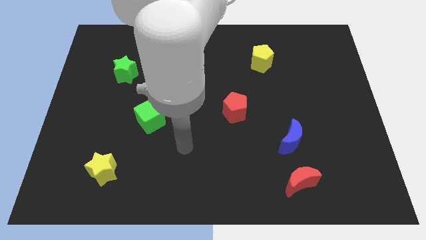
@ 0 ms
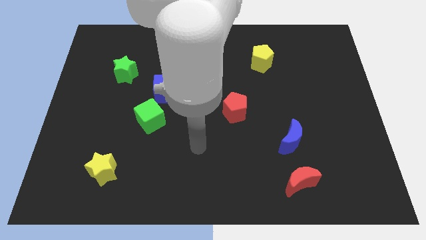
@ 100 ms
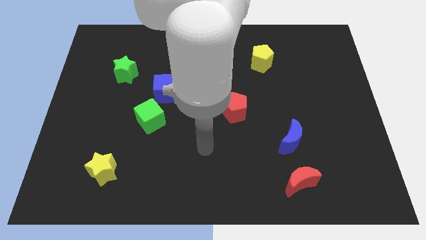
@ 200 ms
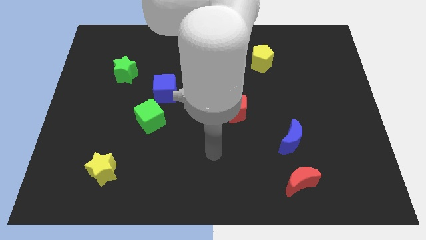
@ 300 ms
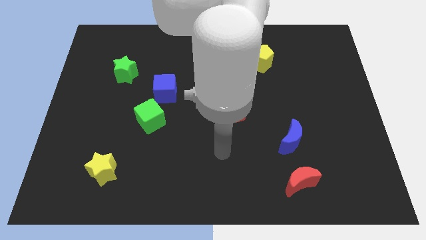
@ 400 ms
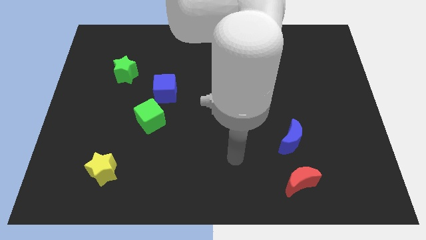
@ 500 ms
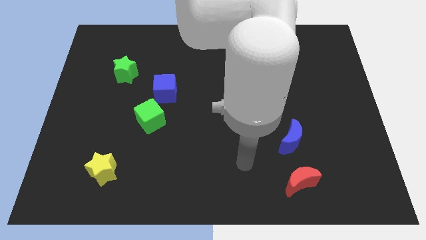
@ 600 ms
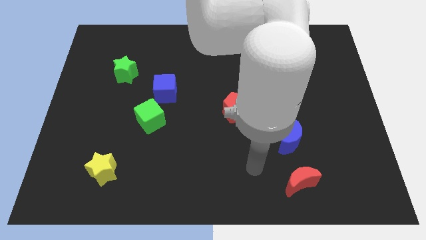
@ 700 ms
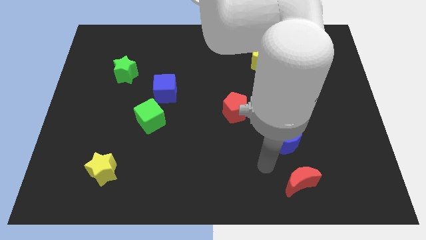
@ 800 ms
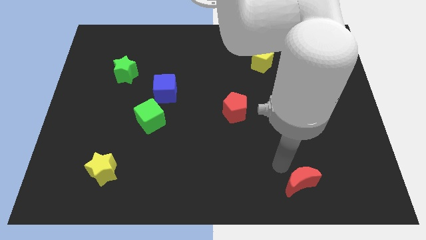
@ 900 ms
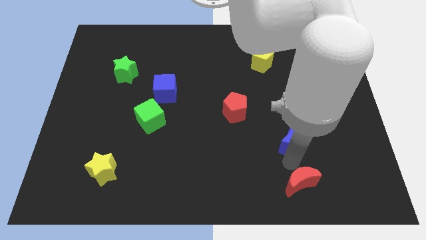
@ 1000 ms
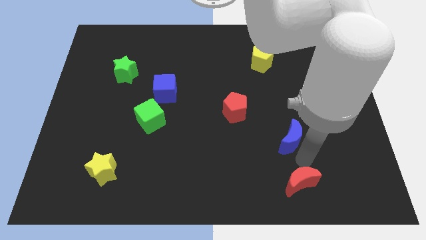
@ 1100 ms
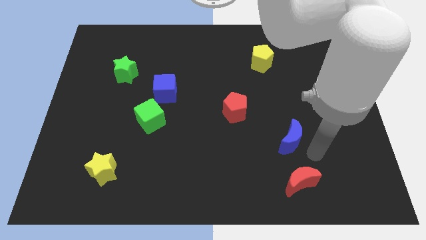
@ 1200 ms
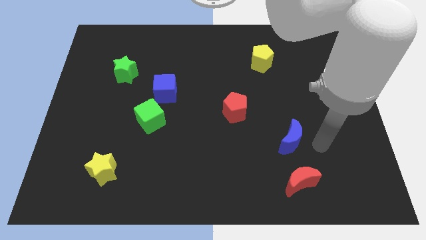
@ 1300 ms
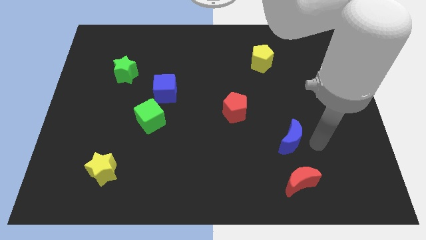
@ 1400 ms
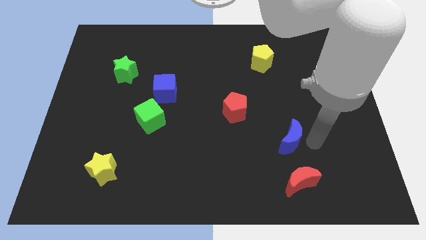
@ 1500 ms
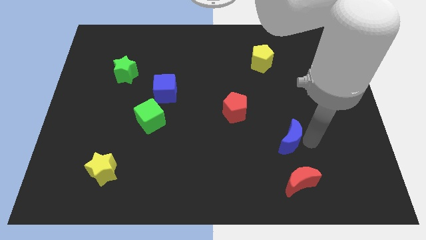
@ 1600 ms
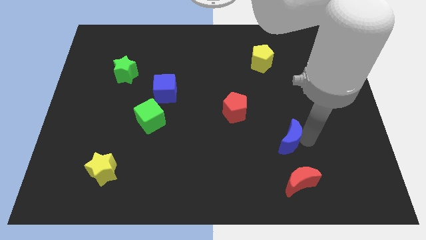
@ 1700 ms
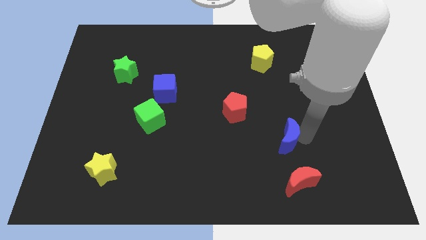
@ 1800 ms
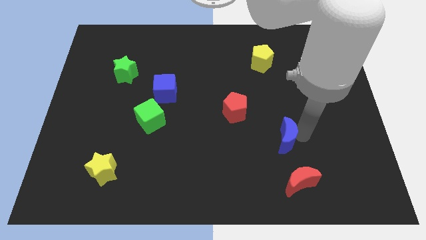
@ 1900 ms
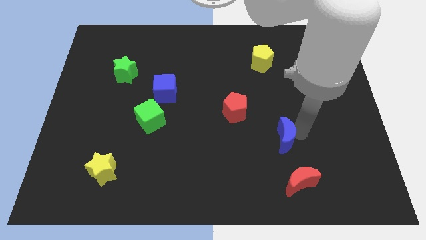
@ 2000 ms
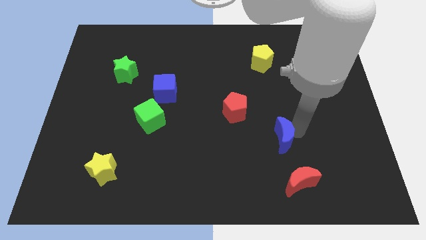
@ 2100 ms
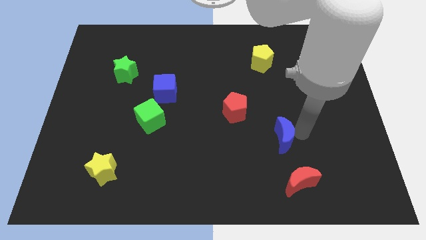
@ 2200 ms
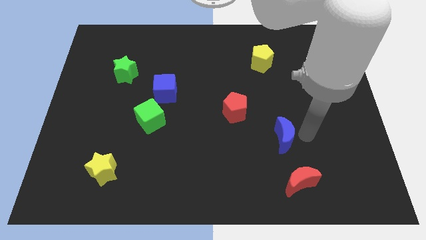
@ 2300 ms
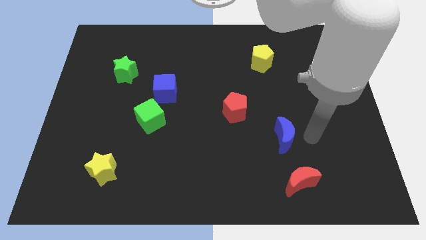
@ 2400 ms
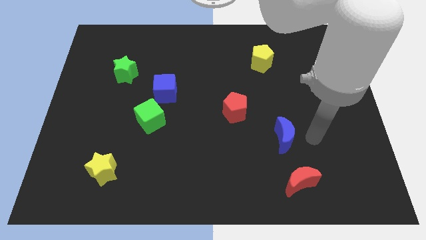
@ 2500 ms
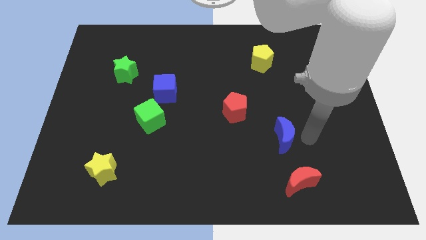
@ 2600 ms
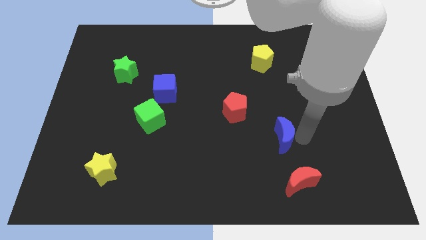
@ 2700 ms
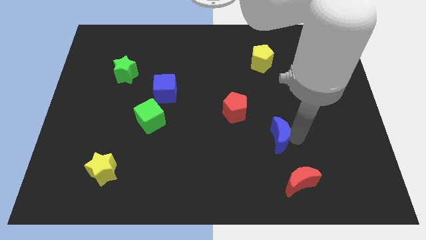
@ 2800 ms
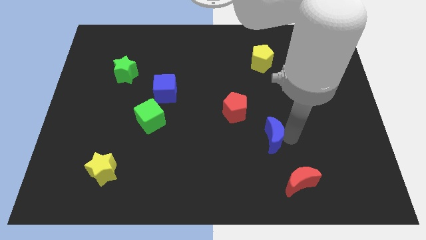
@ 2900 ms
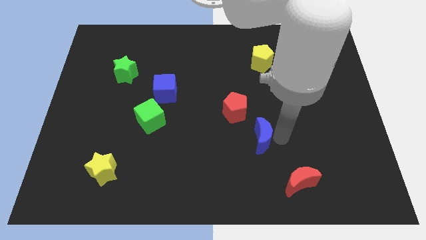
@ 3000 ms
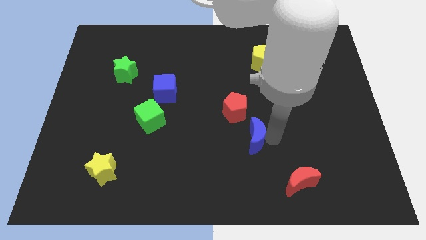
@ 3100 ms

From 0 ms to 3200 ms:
slide the blue moon slightly to the left

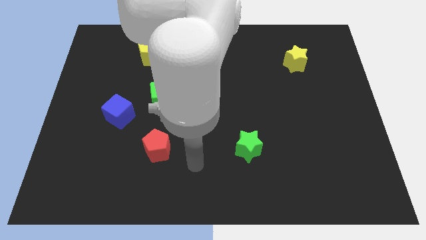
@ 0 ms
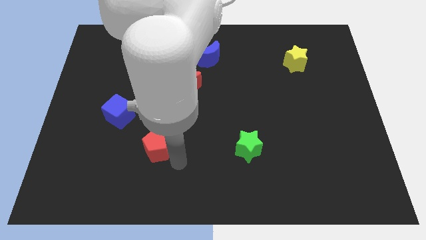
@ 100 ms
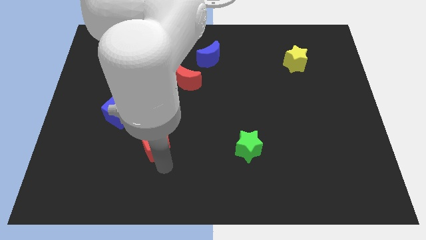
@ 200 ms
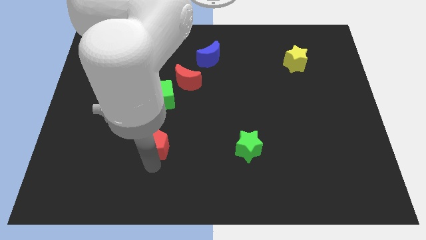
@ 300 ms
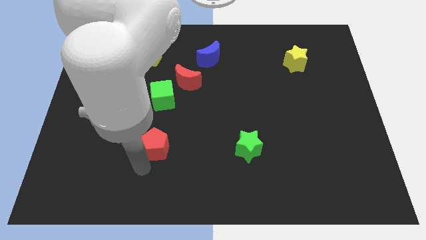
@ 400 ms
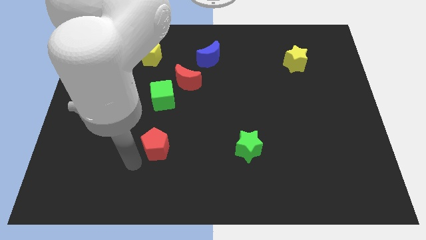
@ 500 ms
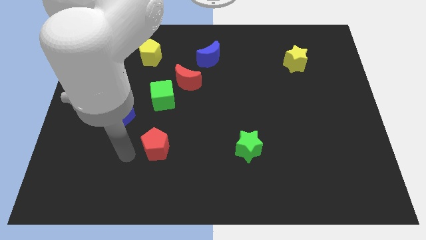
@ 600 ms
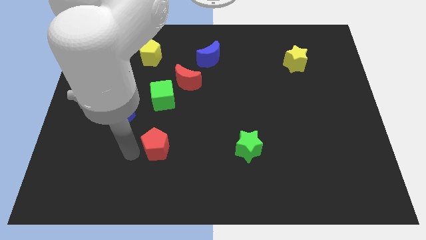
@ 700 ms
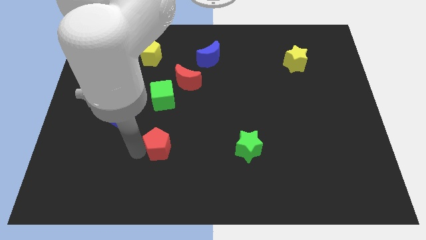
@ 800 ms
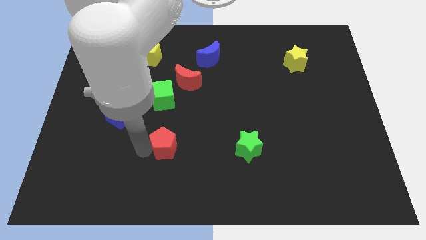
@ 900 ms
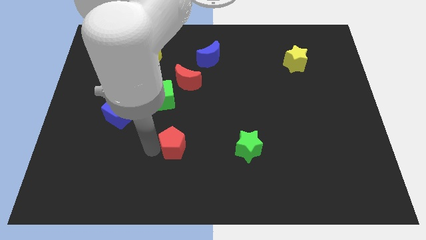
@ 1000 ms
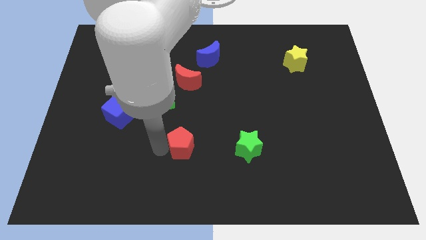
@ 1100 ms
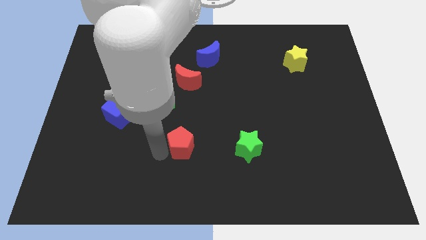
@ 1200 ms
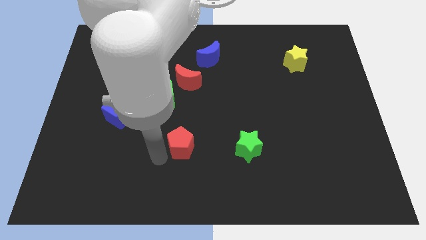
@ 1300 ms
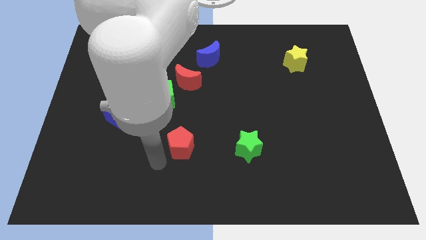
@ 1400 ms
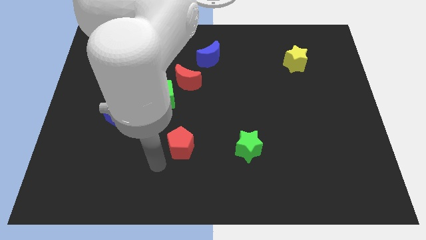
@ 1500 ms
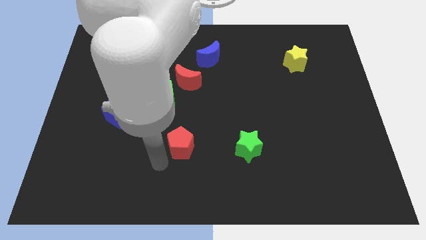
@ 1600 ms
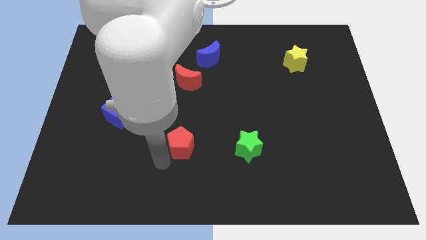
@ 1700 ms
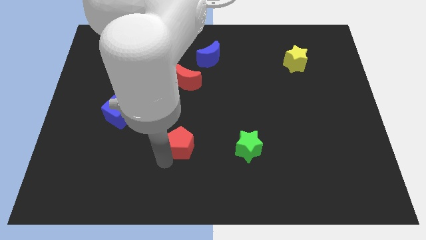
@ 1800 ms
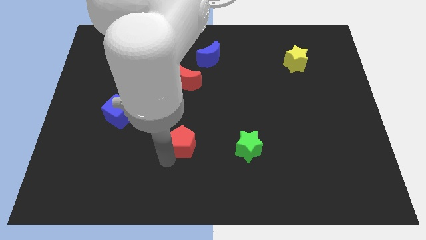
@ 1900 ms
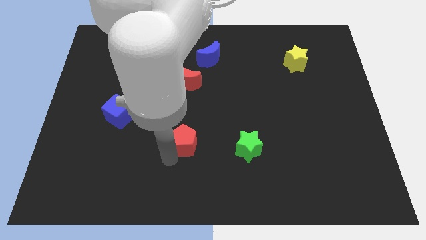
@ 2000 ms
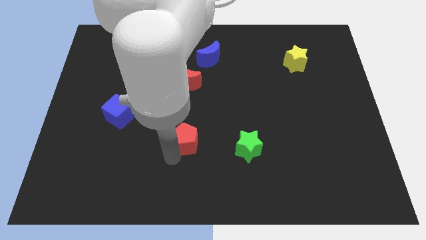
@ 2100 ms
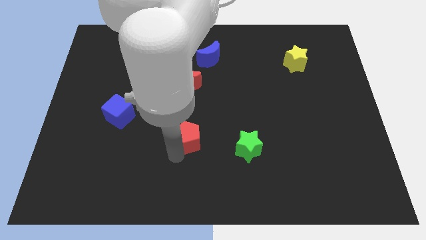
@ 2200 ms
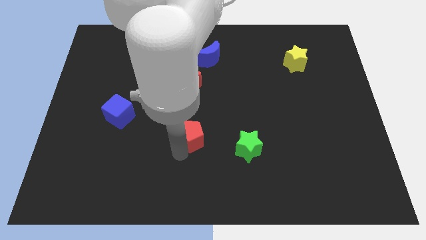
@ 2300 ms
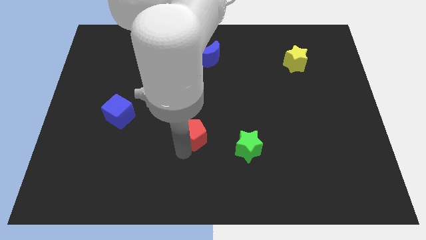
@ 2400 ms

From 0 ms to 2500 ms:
slide the red pentagon slightly up and then right

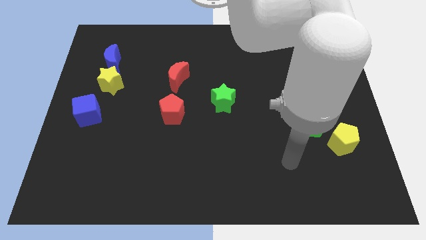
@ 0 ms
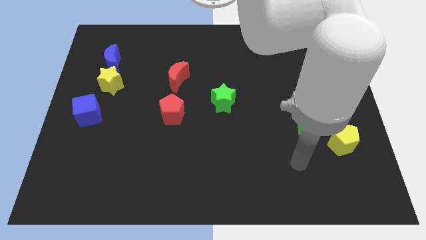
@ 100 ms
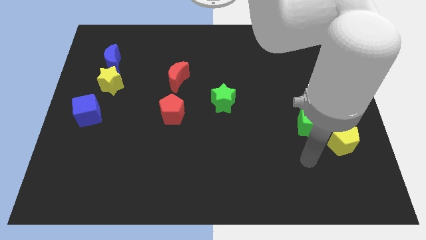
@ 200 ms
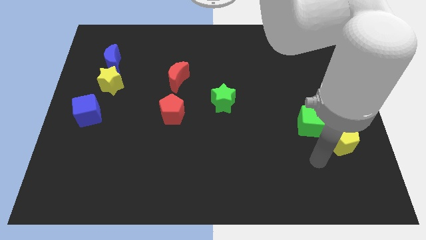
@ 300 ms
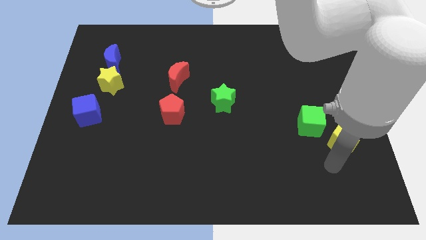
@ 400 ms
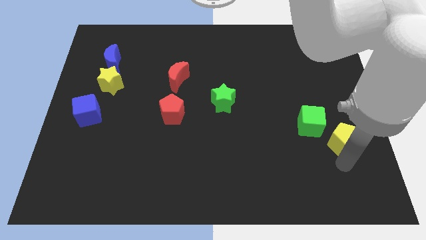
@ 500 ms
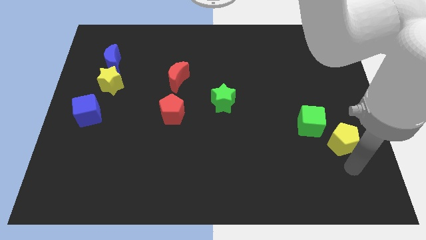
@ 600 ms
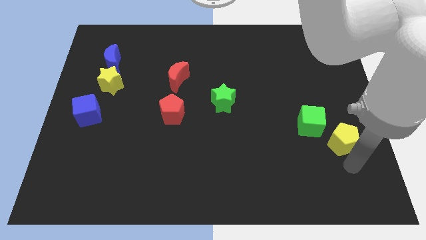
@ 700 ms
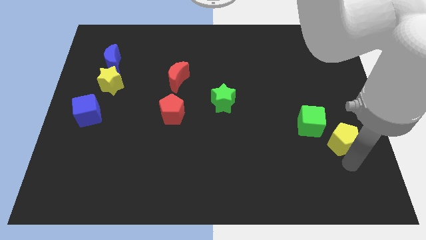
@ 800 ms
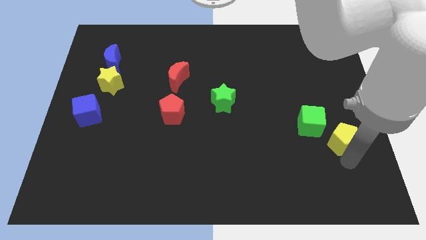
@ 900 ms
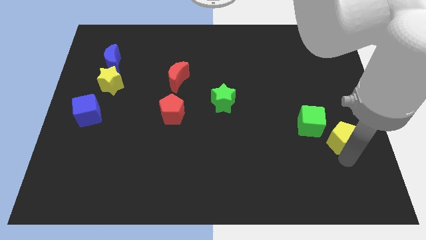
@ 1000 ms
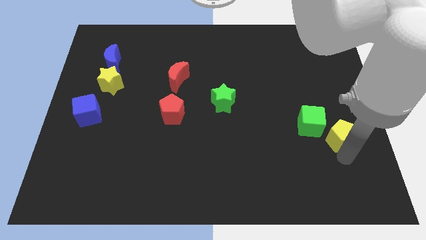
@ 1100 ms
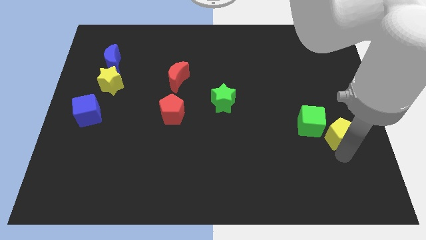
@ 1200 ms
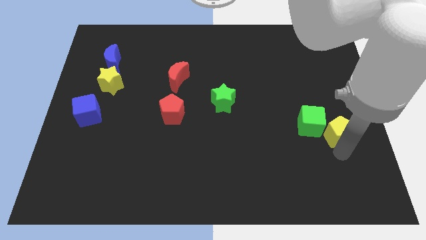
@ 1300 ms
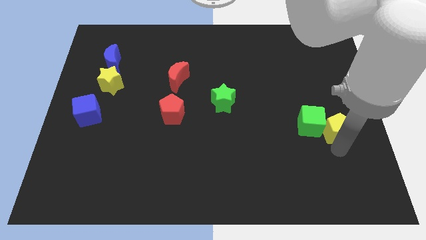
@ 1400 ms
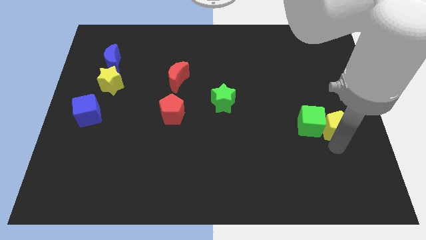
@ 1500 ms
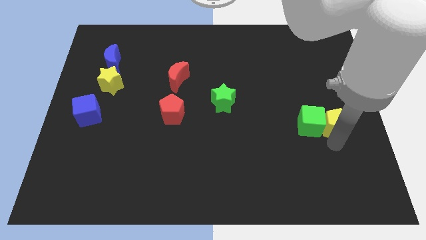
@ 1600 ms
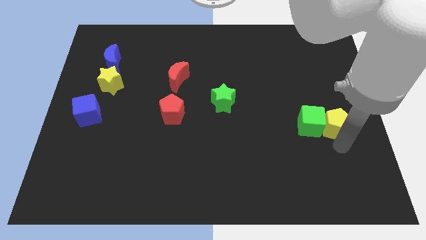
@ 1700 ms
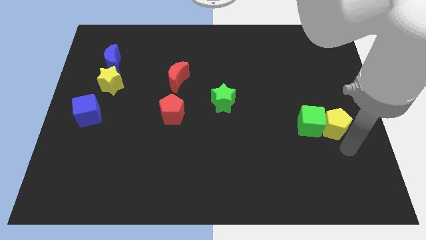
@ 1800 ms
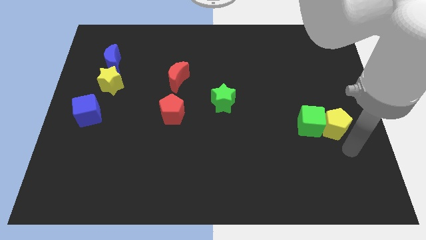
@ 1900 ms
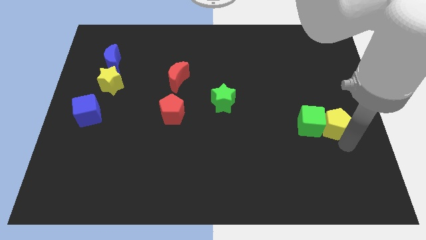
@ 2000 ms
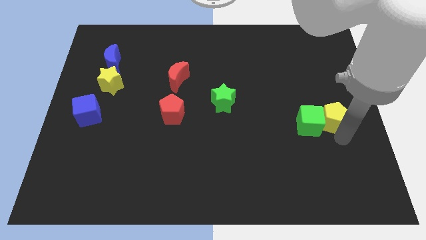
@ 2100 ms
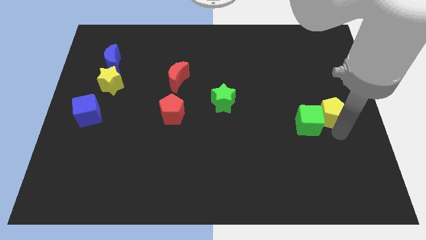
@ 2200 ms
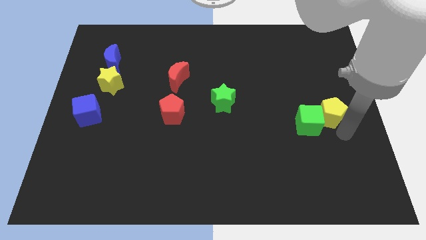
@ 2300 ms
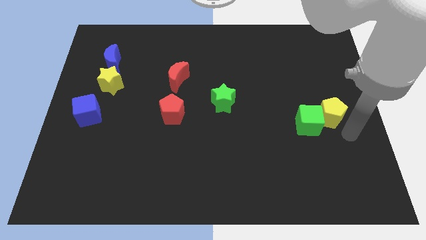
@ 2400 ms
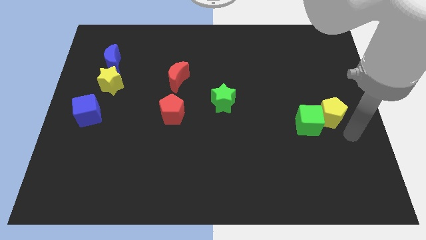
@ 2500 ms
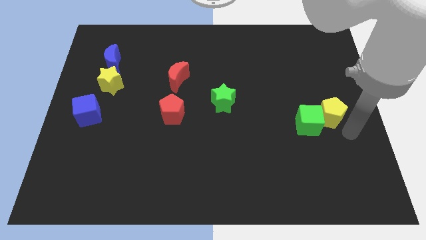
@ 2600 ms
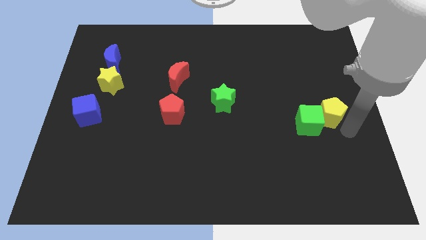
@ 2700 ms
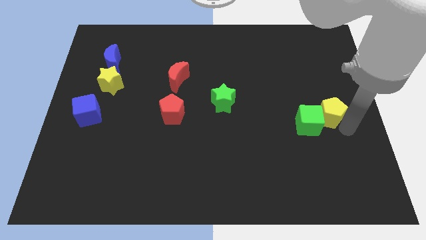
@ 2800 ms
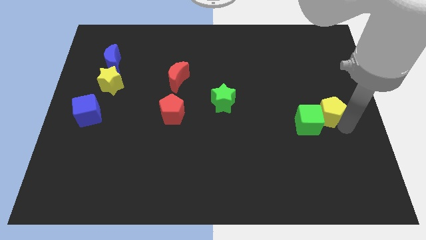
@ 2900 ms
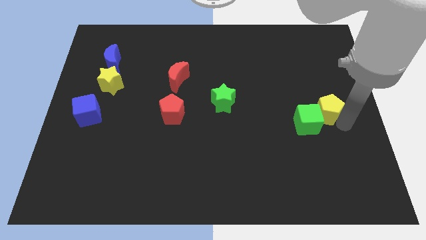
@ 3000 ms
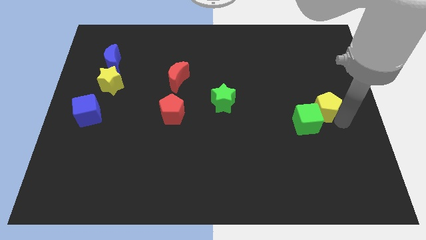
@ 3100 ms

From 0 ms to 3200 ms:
slightly slide the yellow pentagon diagonally up and left
